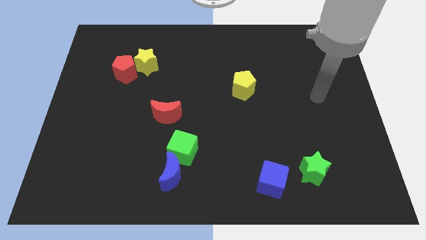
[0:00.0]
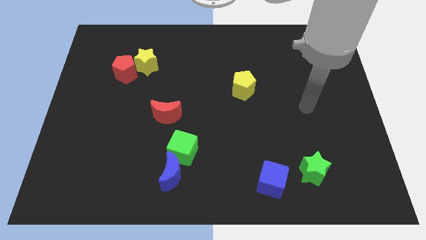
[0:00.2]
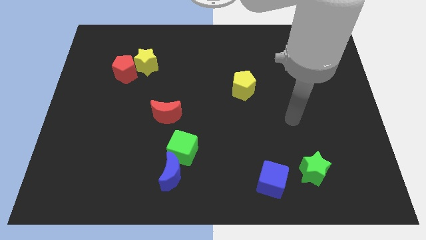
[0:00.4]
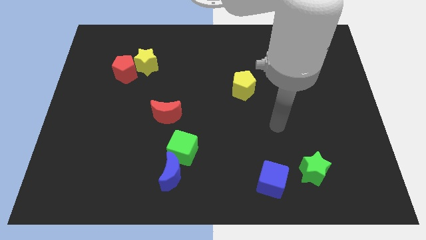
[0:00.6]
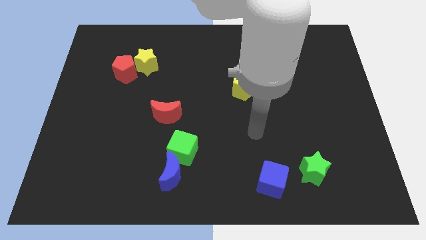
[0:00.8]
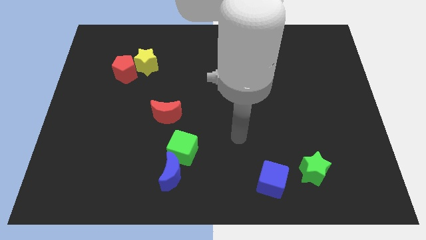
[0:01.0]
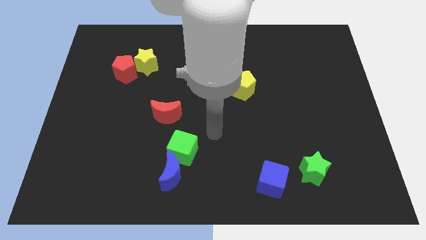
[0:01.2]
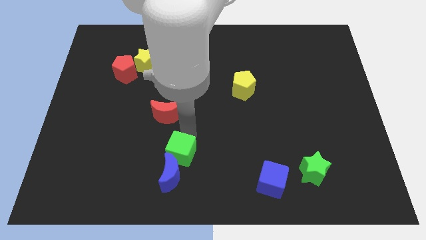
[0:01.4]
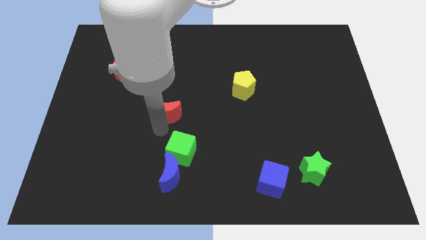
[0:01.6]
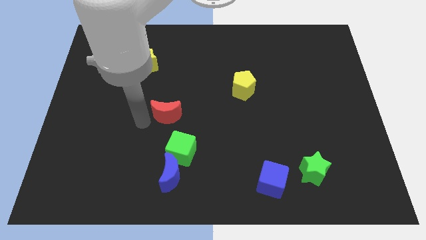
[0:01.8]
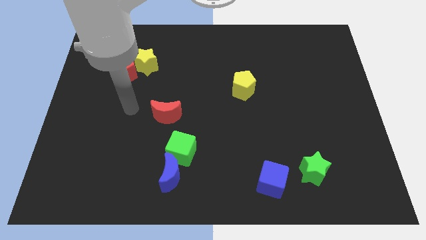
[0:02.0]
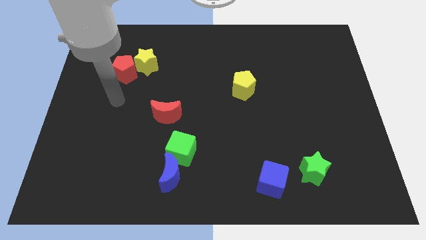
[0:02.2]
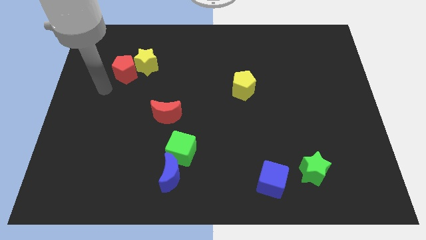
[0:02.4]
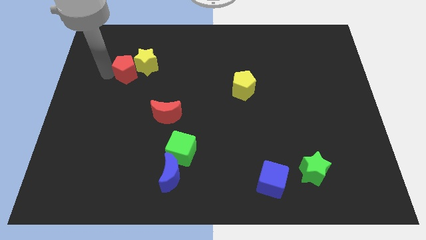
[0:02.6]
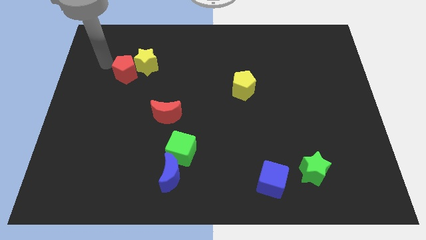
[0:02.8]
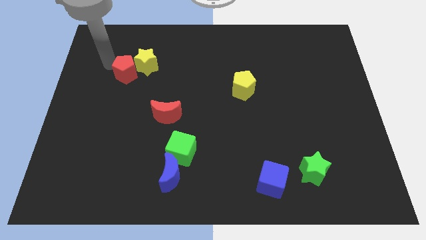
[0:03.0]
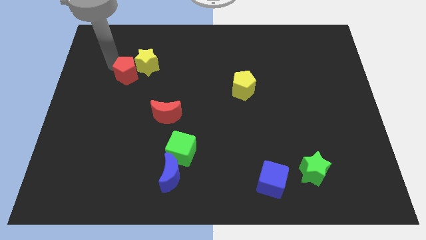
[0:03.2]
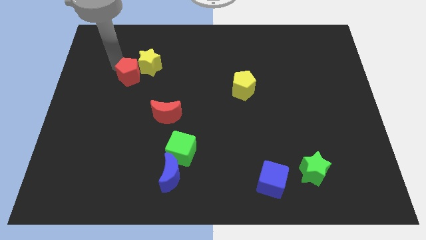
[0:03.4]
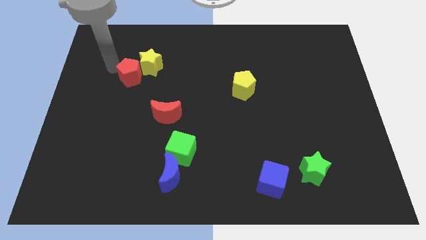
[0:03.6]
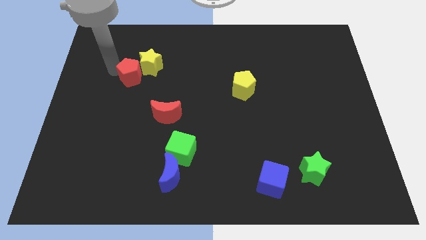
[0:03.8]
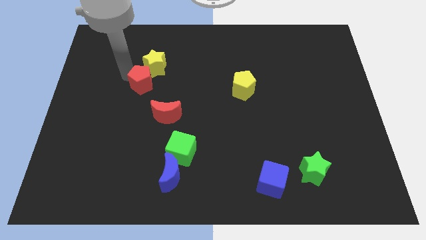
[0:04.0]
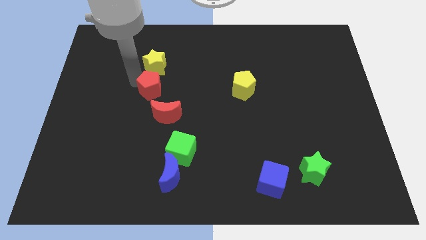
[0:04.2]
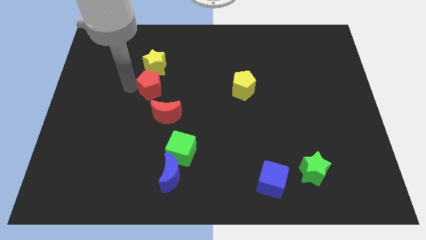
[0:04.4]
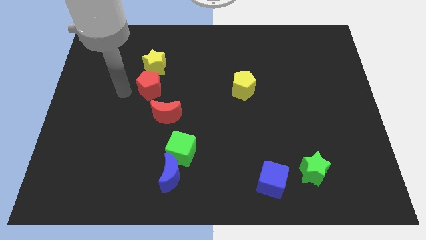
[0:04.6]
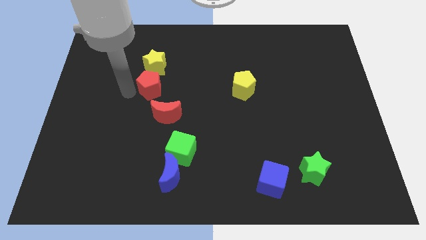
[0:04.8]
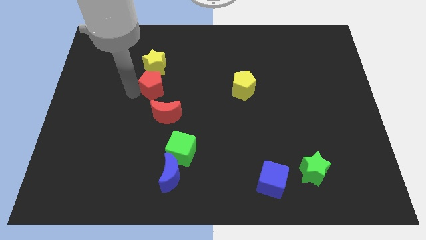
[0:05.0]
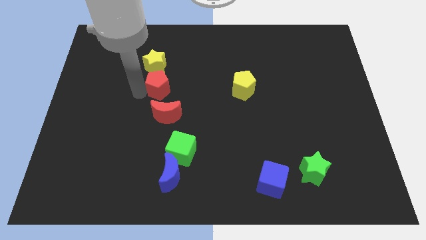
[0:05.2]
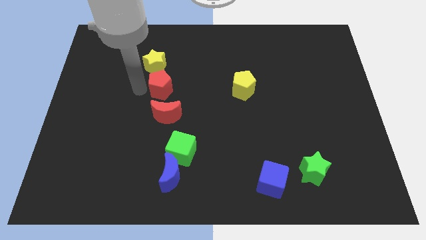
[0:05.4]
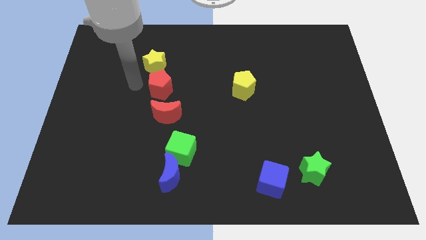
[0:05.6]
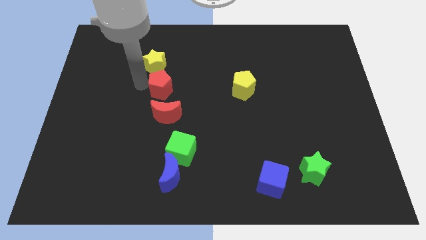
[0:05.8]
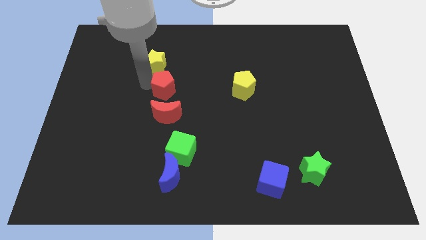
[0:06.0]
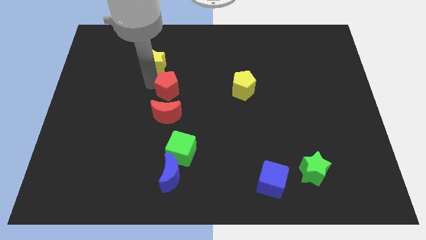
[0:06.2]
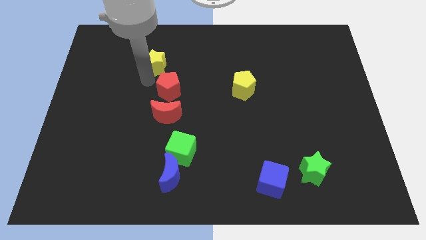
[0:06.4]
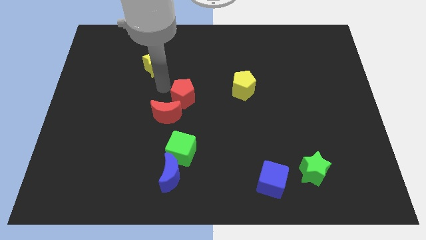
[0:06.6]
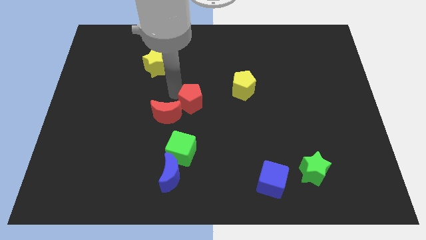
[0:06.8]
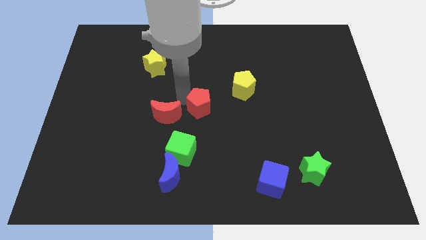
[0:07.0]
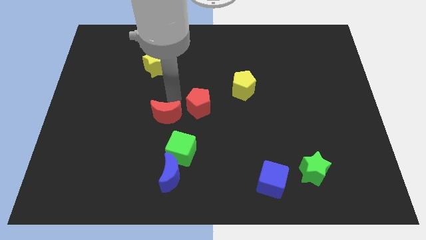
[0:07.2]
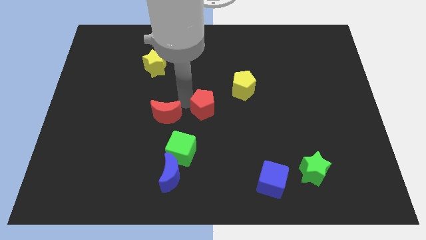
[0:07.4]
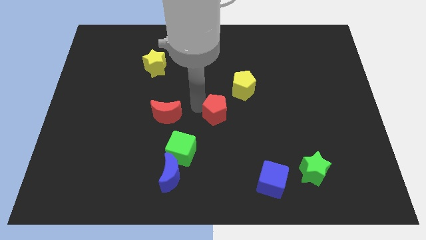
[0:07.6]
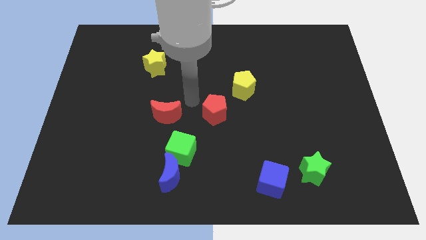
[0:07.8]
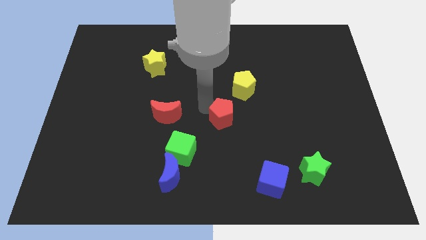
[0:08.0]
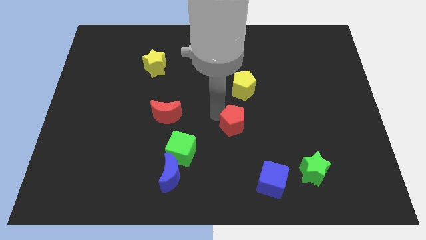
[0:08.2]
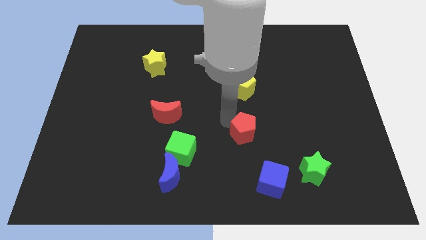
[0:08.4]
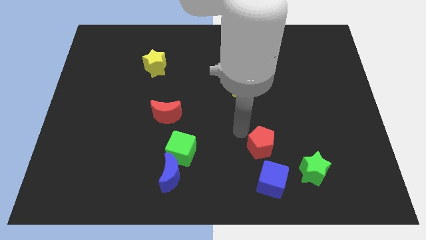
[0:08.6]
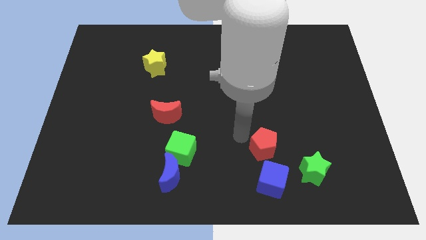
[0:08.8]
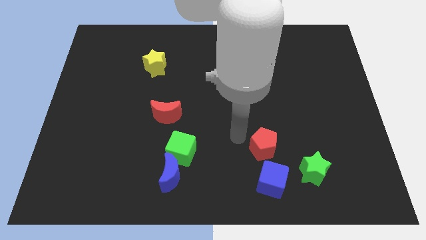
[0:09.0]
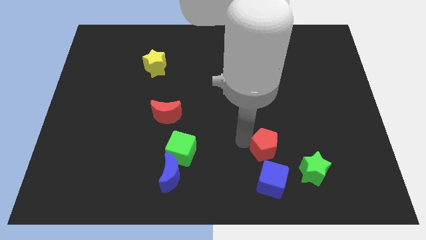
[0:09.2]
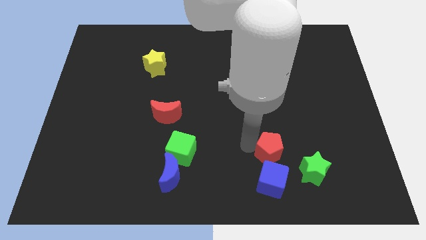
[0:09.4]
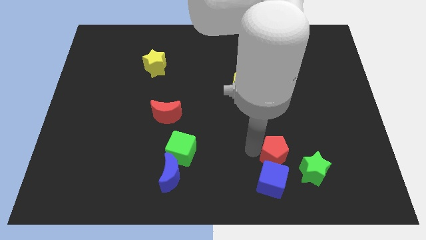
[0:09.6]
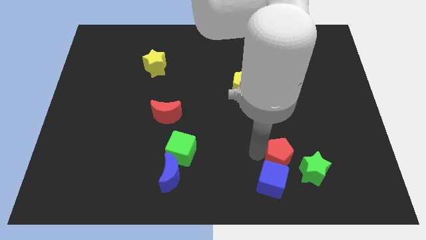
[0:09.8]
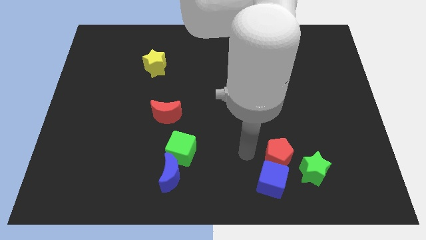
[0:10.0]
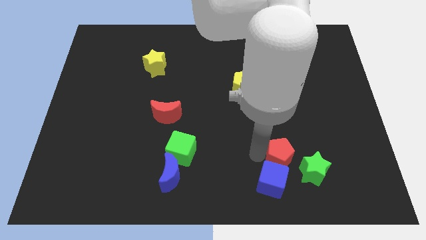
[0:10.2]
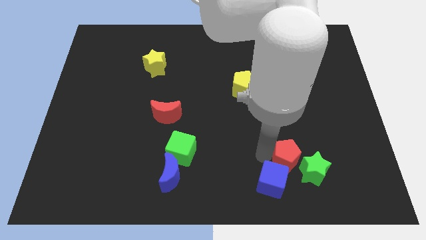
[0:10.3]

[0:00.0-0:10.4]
move the red pentagon towards the green star
